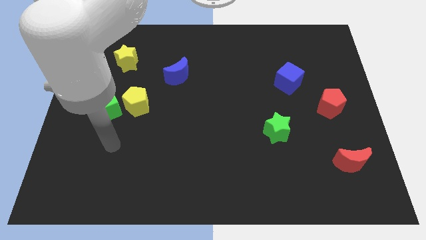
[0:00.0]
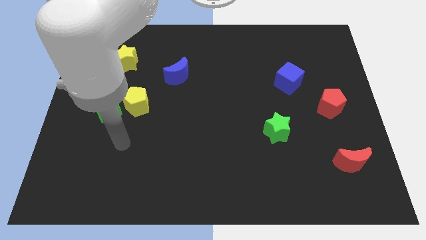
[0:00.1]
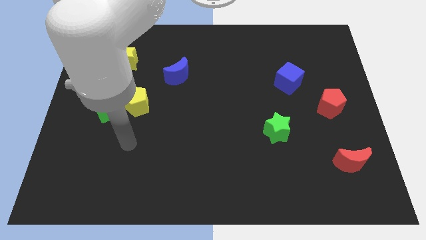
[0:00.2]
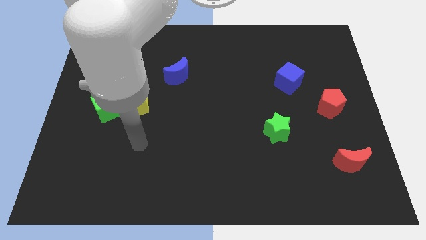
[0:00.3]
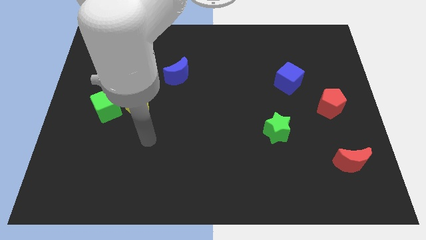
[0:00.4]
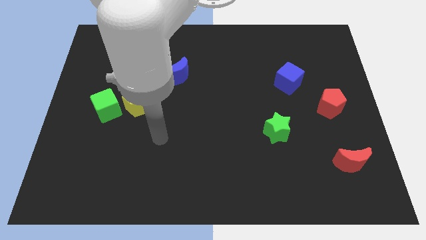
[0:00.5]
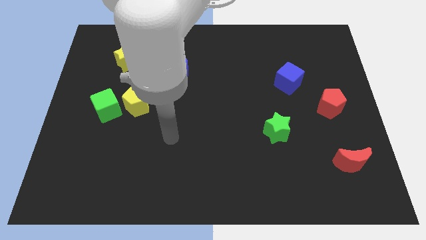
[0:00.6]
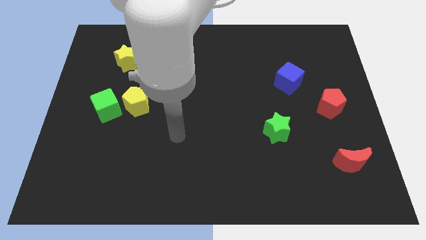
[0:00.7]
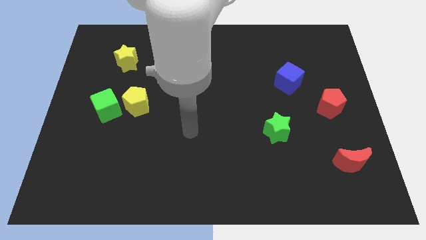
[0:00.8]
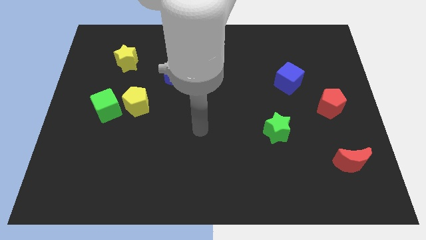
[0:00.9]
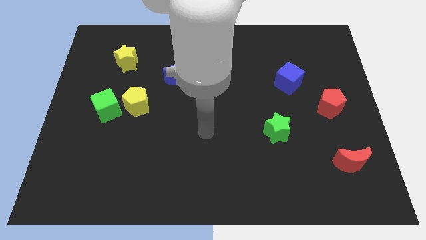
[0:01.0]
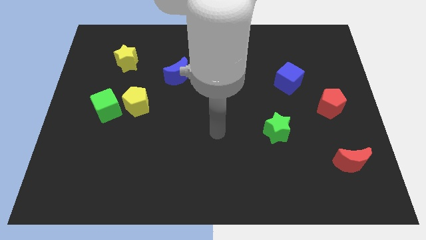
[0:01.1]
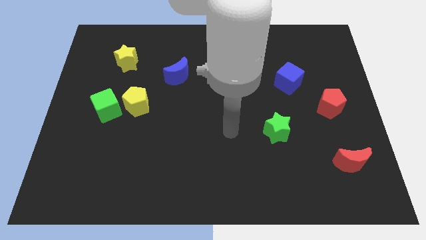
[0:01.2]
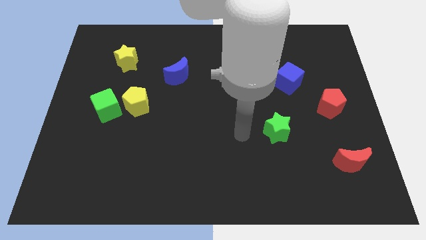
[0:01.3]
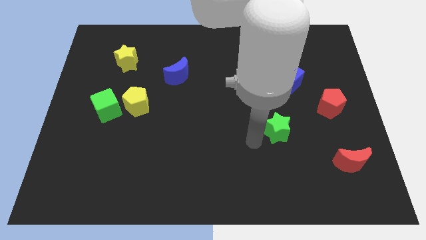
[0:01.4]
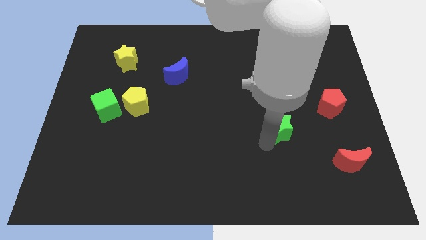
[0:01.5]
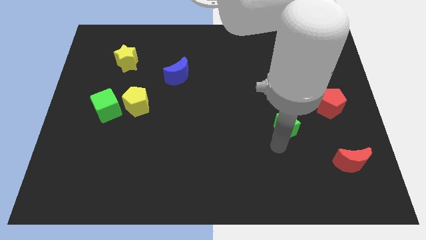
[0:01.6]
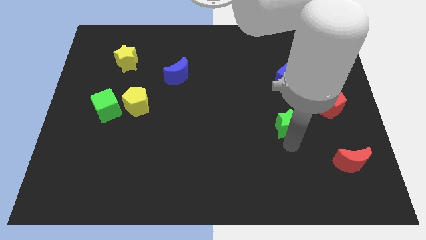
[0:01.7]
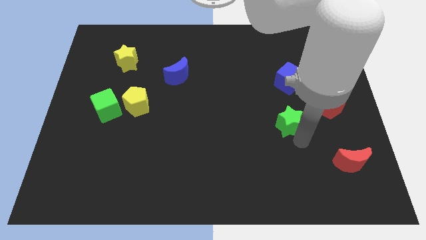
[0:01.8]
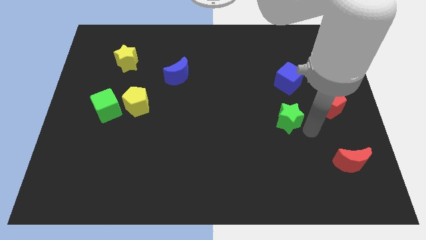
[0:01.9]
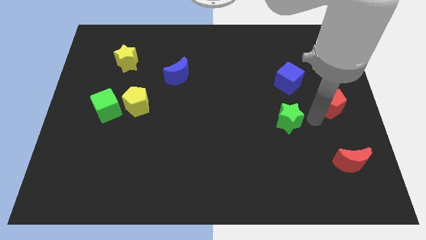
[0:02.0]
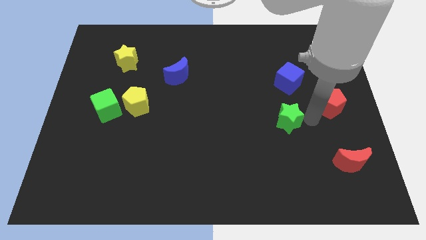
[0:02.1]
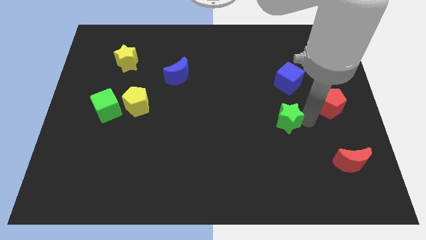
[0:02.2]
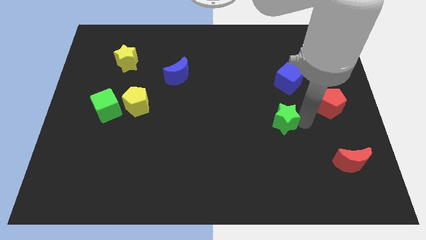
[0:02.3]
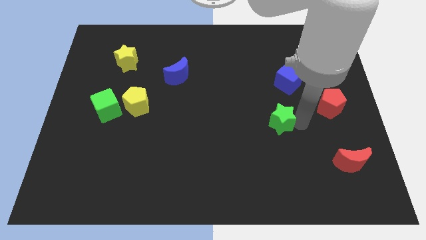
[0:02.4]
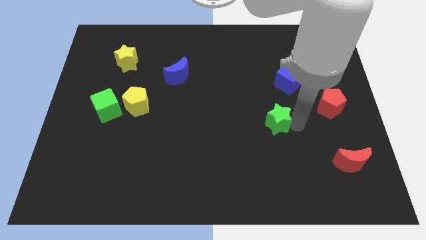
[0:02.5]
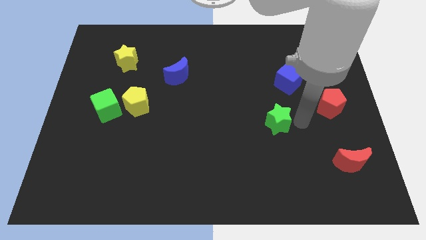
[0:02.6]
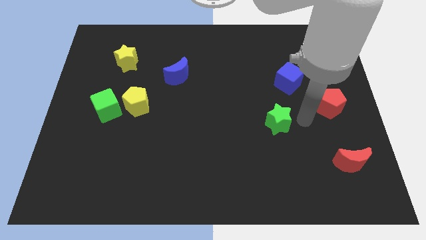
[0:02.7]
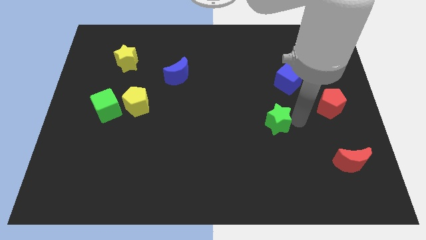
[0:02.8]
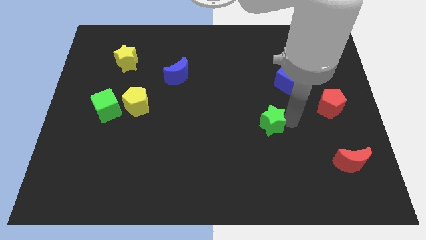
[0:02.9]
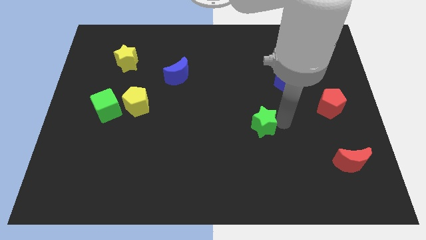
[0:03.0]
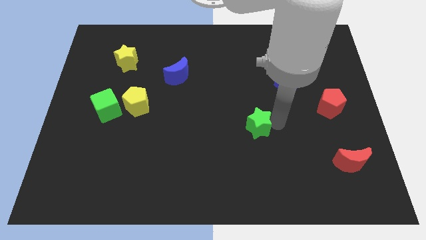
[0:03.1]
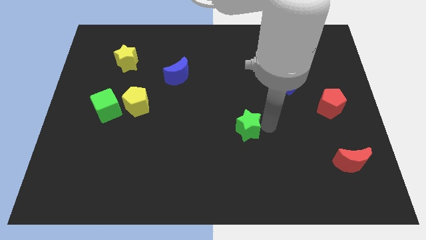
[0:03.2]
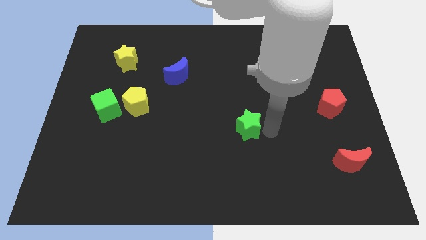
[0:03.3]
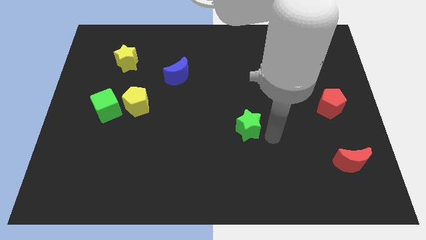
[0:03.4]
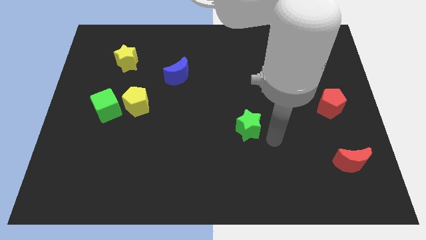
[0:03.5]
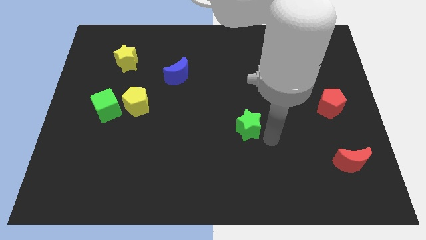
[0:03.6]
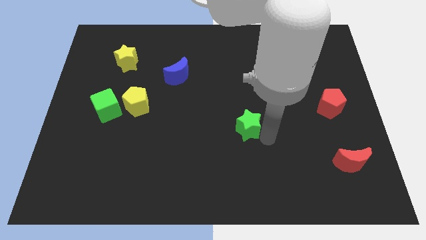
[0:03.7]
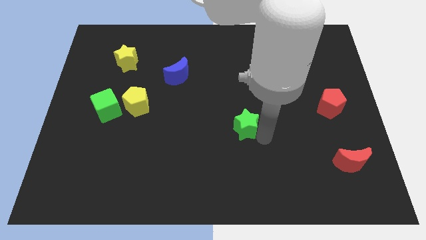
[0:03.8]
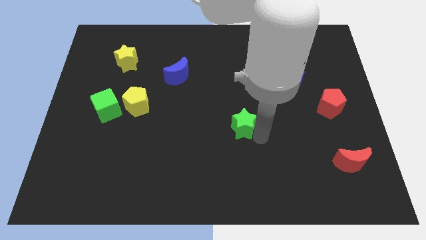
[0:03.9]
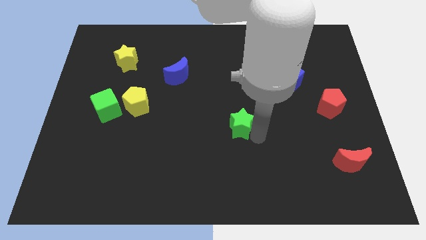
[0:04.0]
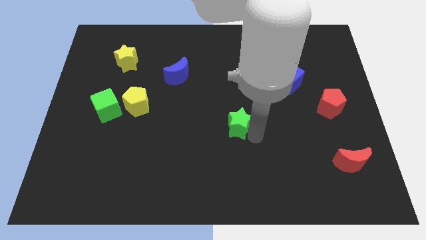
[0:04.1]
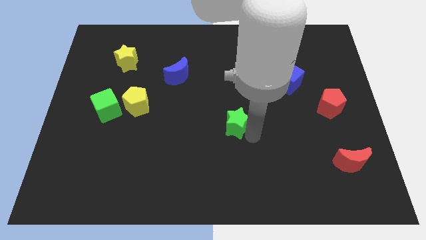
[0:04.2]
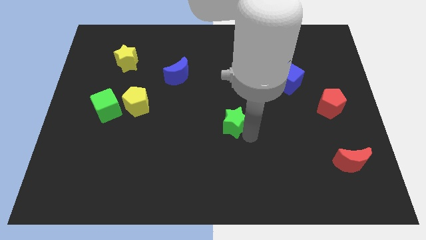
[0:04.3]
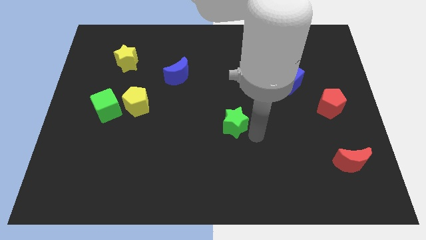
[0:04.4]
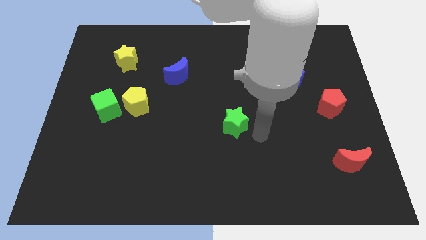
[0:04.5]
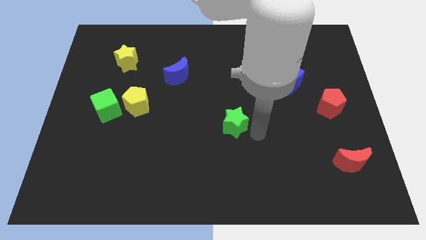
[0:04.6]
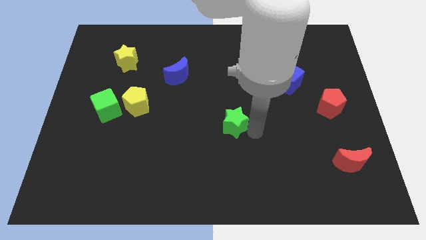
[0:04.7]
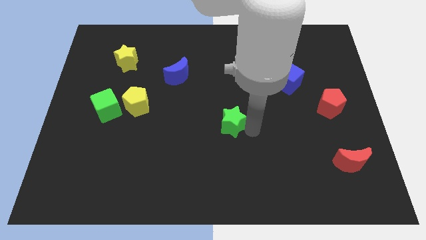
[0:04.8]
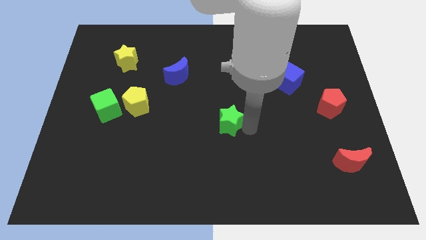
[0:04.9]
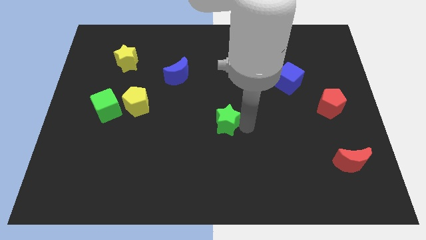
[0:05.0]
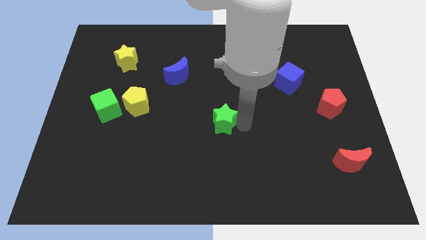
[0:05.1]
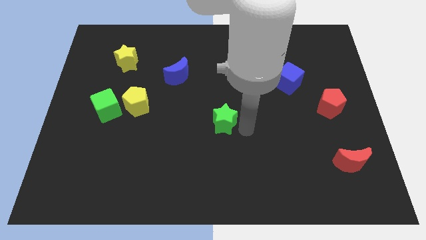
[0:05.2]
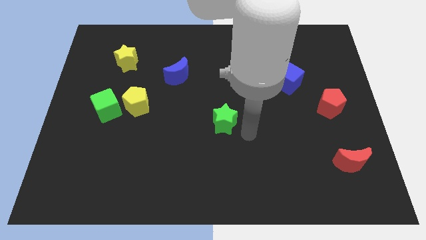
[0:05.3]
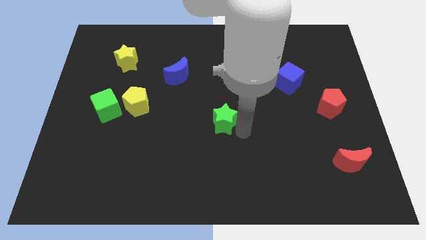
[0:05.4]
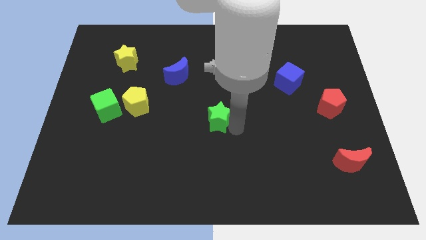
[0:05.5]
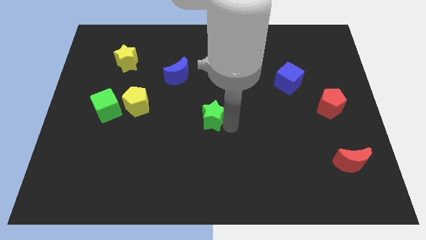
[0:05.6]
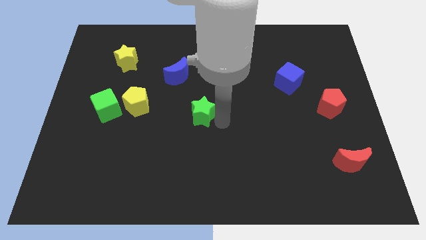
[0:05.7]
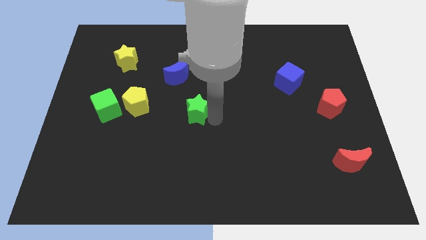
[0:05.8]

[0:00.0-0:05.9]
slide the green star to the bottom of the blue moon

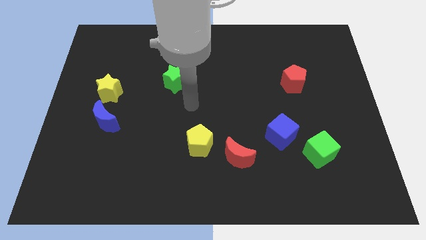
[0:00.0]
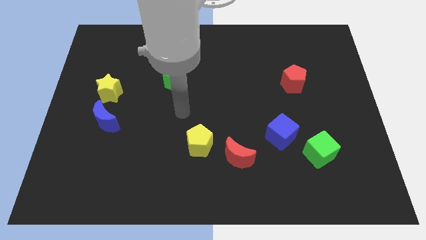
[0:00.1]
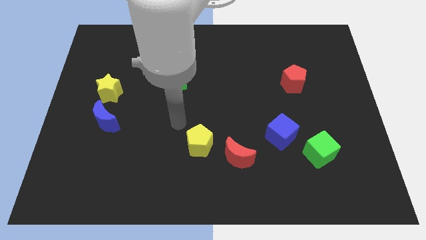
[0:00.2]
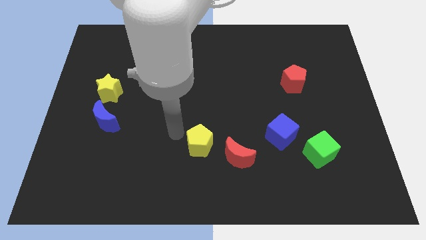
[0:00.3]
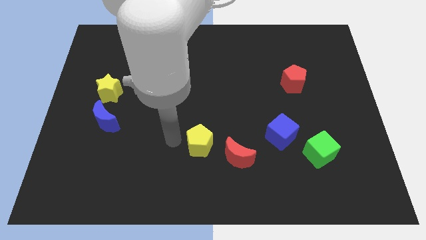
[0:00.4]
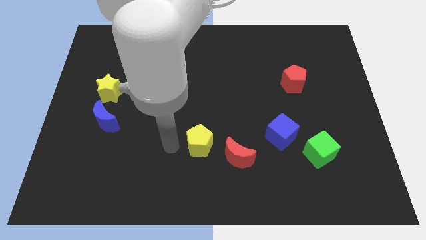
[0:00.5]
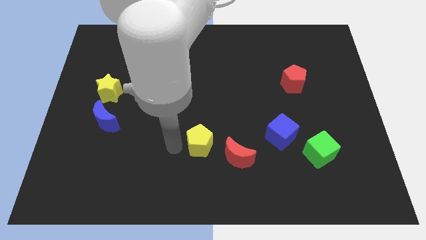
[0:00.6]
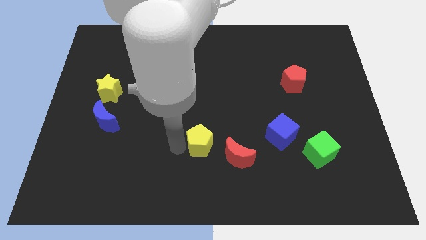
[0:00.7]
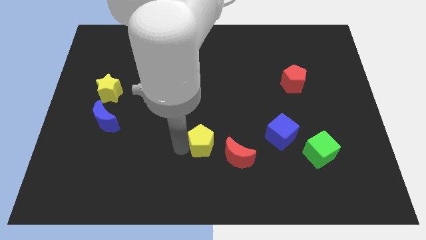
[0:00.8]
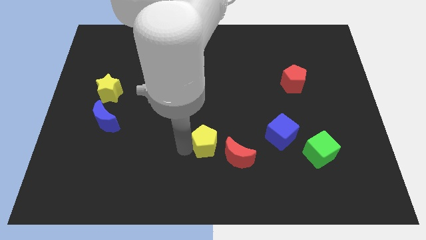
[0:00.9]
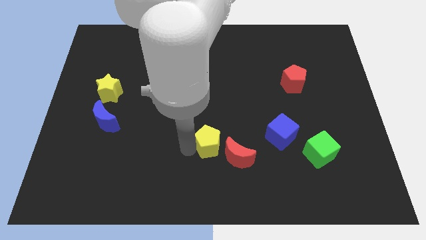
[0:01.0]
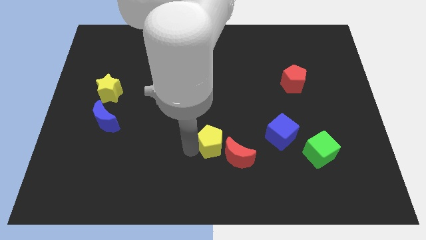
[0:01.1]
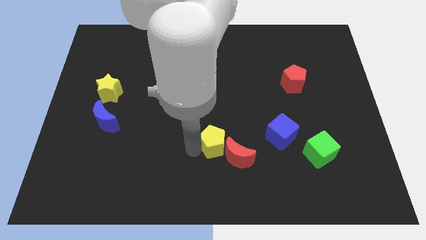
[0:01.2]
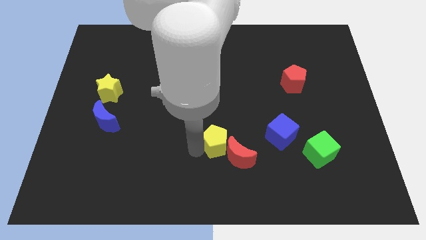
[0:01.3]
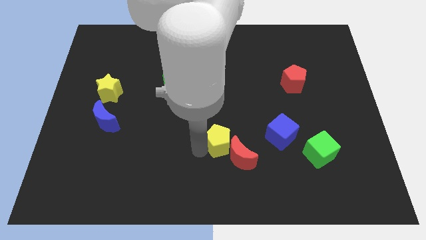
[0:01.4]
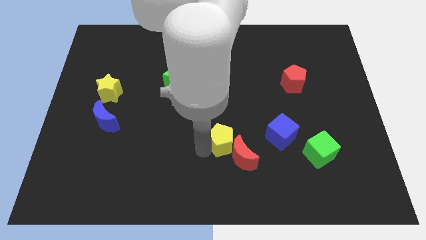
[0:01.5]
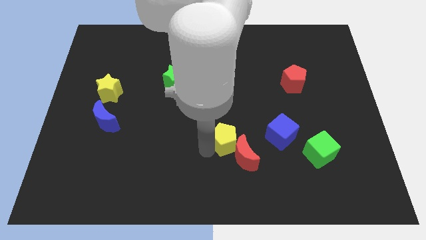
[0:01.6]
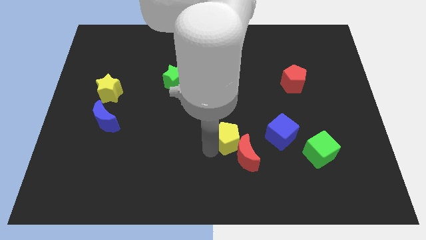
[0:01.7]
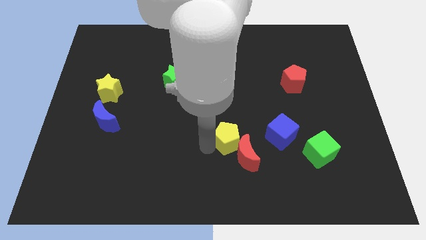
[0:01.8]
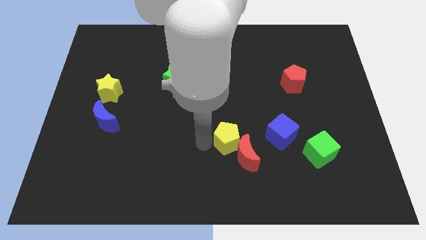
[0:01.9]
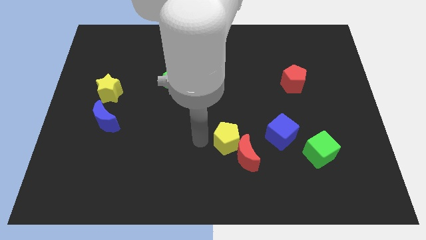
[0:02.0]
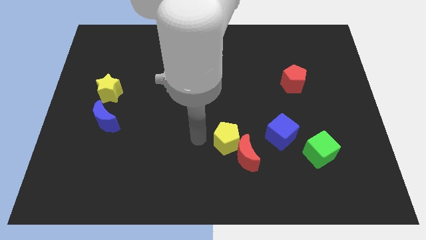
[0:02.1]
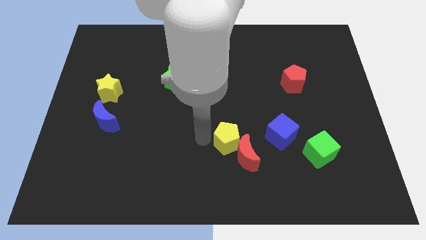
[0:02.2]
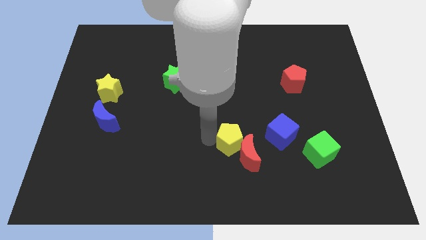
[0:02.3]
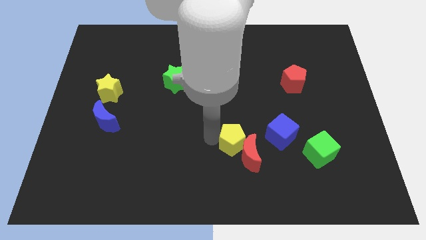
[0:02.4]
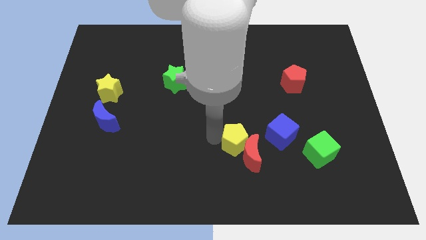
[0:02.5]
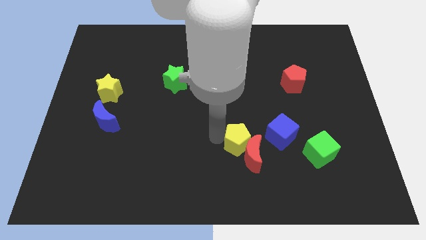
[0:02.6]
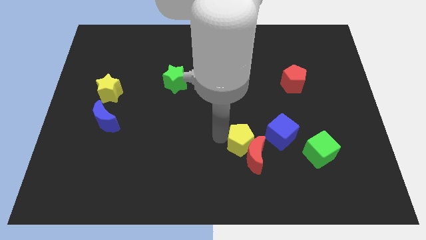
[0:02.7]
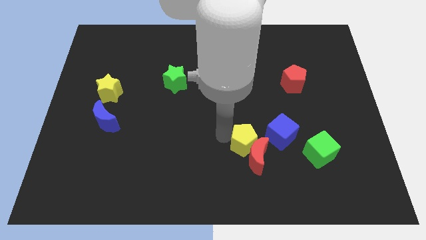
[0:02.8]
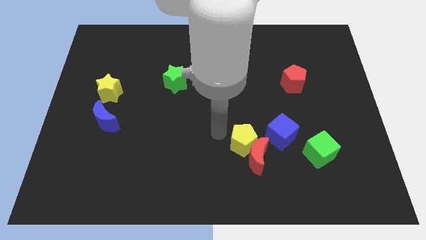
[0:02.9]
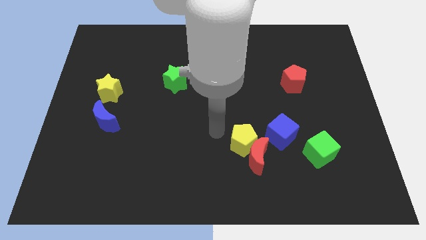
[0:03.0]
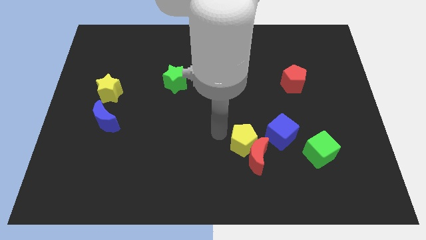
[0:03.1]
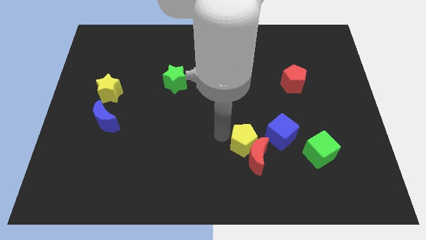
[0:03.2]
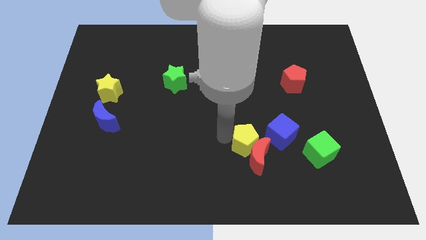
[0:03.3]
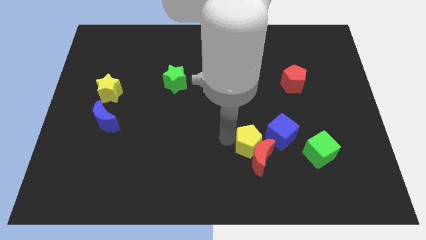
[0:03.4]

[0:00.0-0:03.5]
put the yellow pentagon left of the green cube
